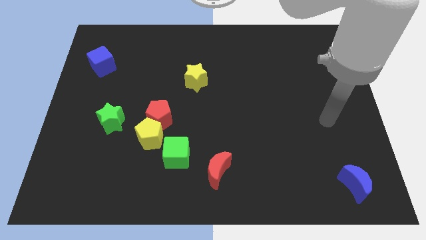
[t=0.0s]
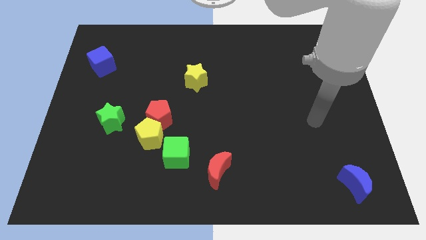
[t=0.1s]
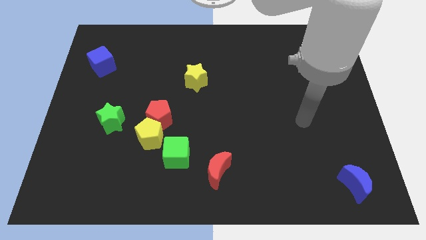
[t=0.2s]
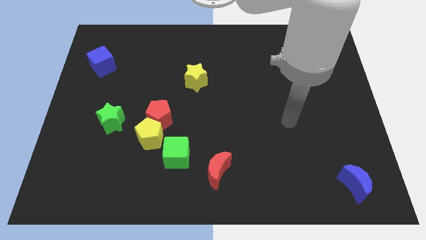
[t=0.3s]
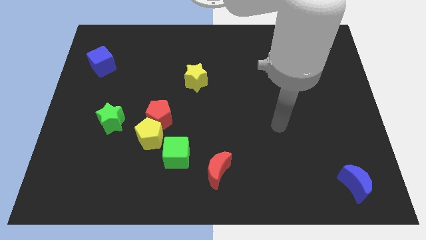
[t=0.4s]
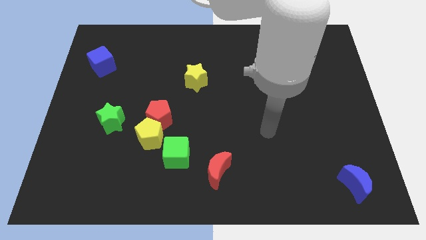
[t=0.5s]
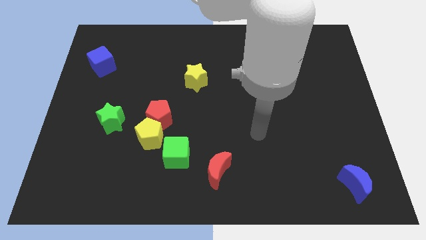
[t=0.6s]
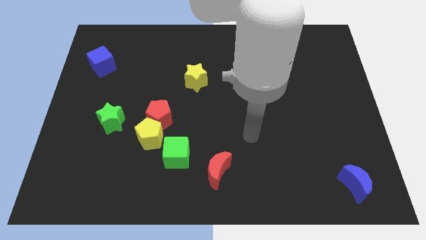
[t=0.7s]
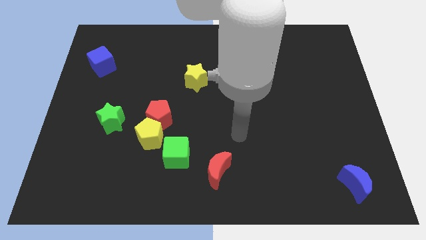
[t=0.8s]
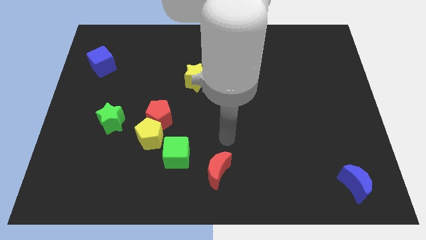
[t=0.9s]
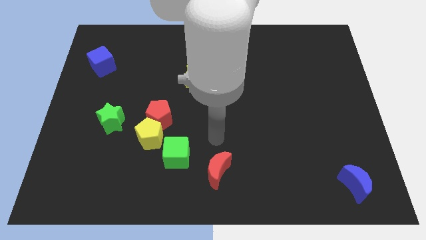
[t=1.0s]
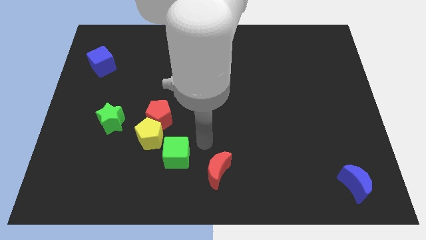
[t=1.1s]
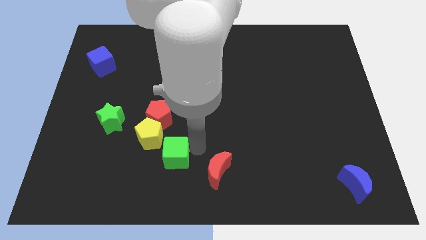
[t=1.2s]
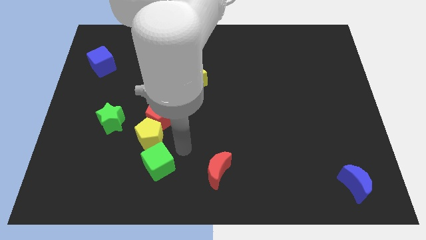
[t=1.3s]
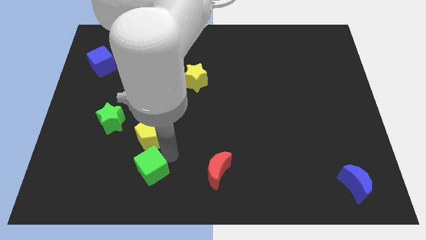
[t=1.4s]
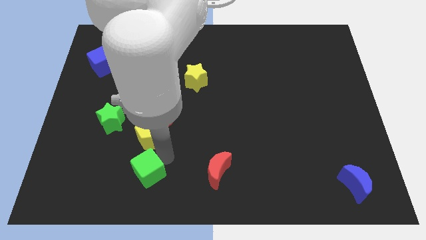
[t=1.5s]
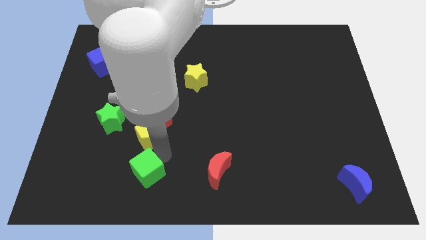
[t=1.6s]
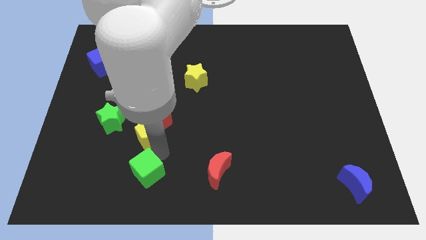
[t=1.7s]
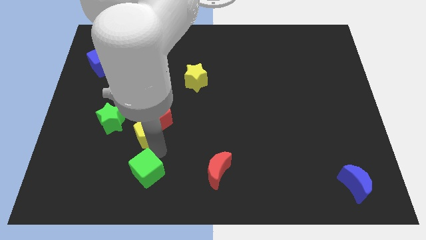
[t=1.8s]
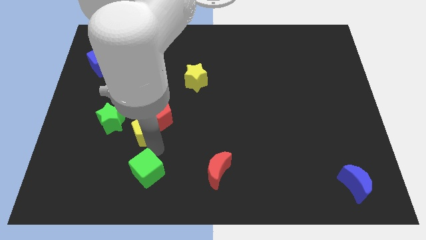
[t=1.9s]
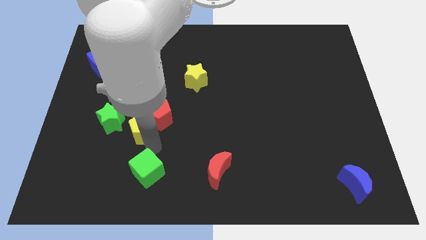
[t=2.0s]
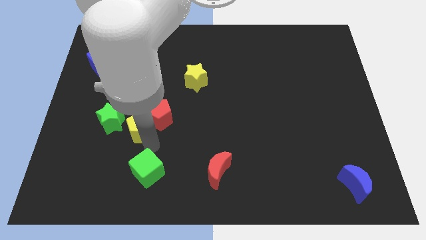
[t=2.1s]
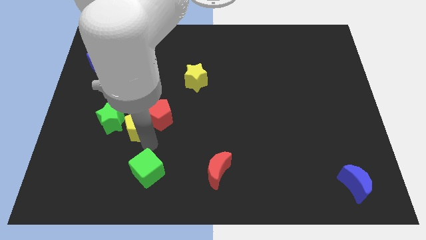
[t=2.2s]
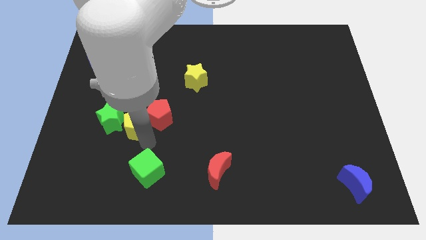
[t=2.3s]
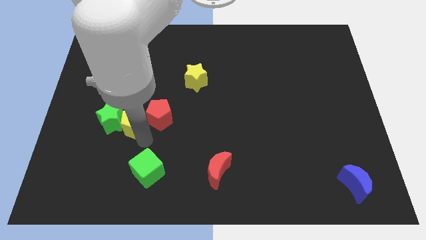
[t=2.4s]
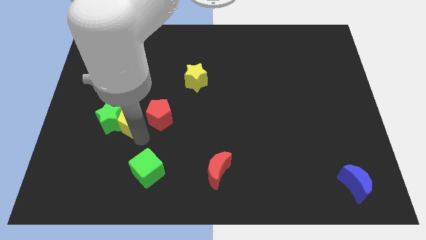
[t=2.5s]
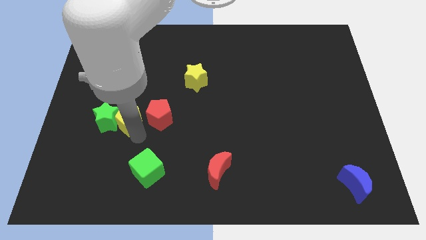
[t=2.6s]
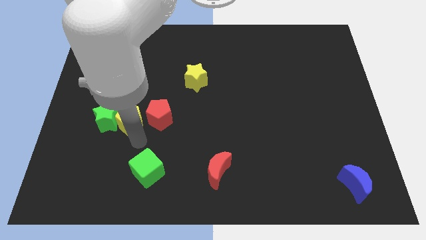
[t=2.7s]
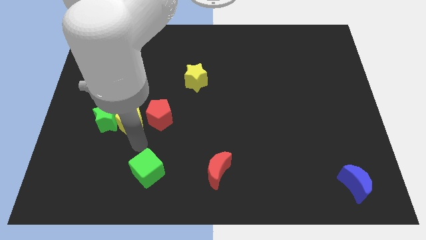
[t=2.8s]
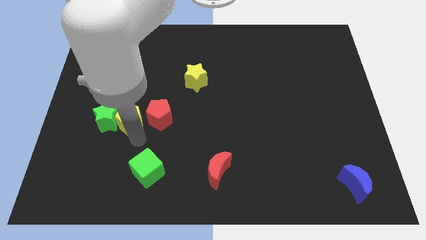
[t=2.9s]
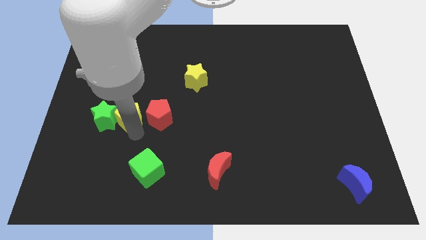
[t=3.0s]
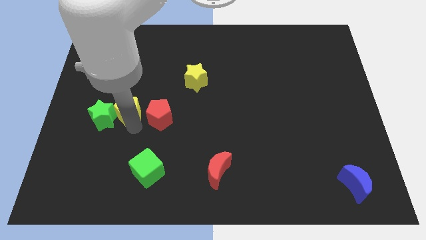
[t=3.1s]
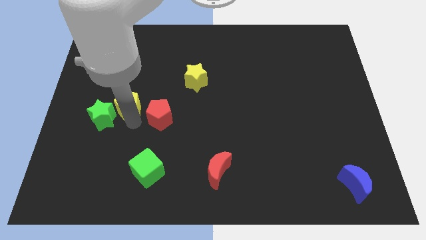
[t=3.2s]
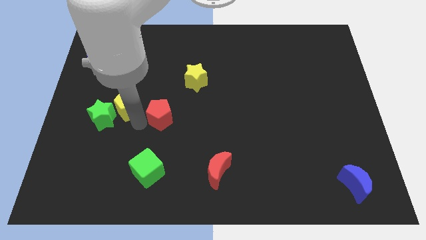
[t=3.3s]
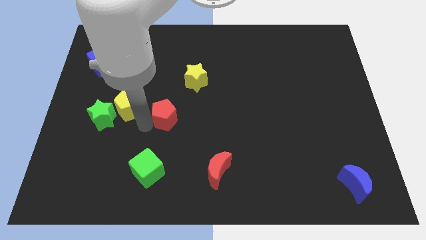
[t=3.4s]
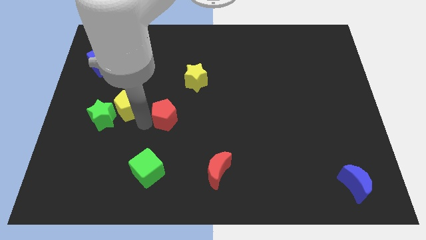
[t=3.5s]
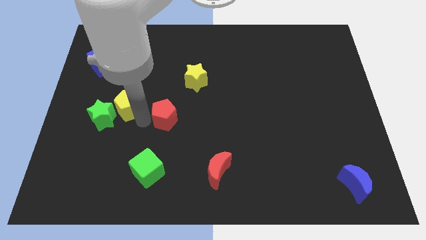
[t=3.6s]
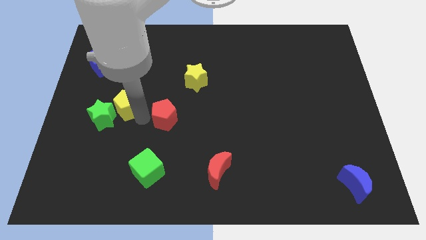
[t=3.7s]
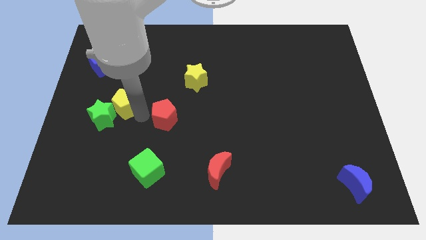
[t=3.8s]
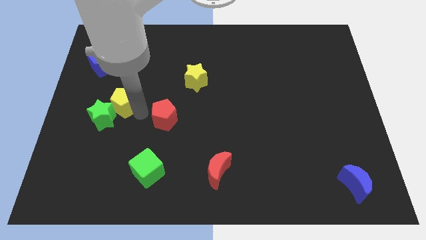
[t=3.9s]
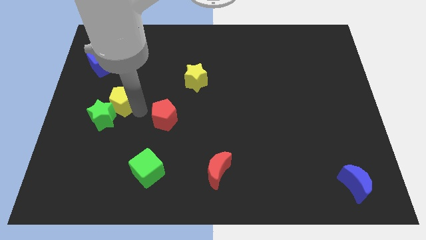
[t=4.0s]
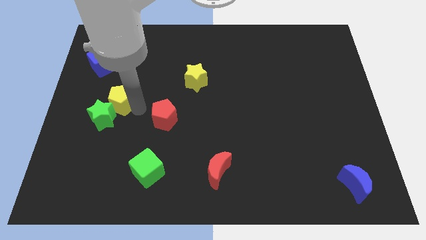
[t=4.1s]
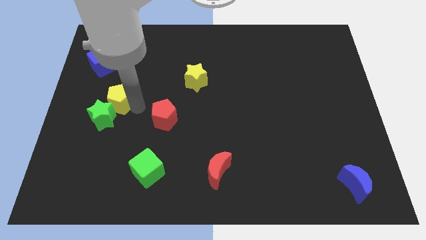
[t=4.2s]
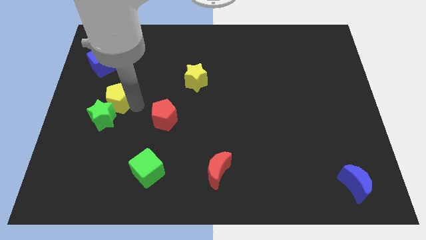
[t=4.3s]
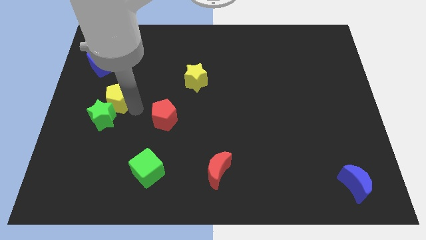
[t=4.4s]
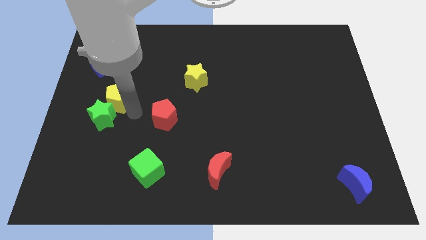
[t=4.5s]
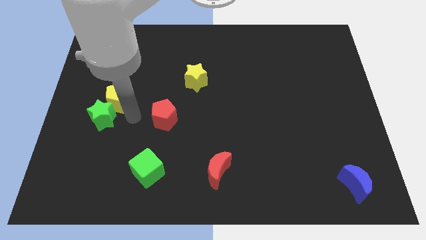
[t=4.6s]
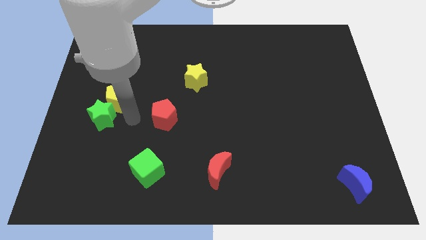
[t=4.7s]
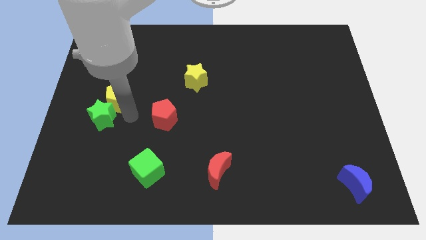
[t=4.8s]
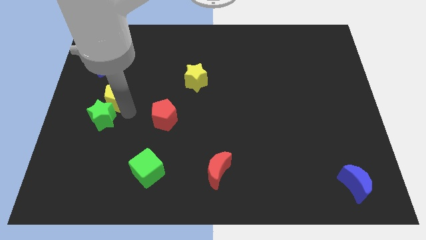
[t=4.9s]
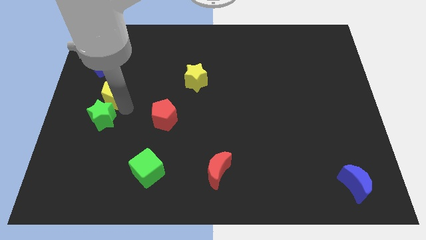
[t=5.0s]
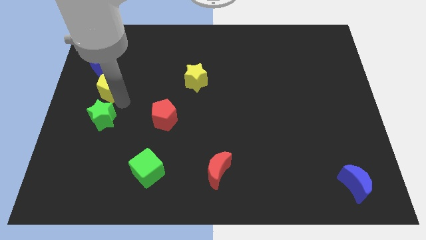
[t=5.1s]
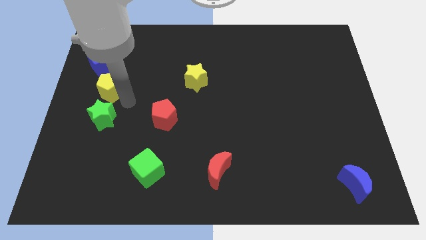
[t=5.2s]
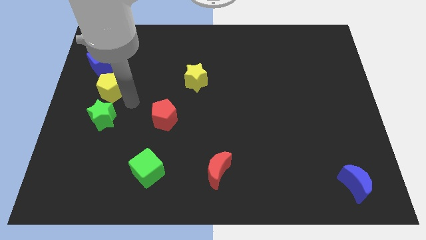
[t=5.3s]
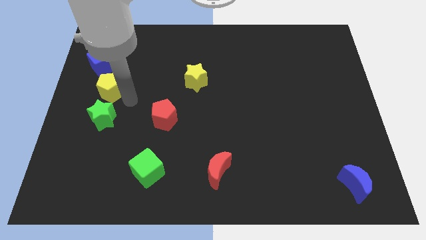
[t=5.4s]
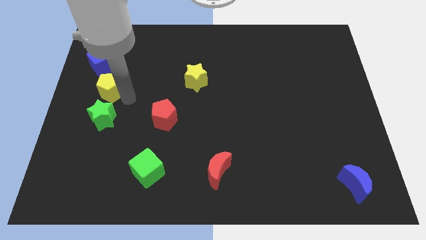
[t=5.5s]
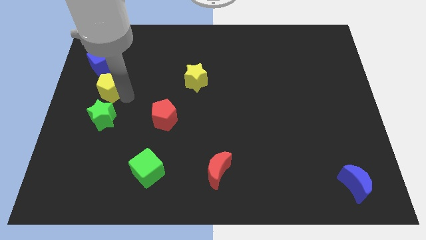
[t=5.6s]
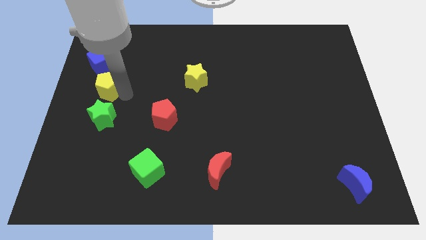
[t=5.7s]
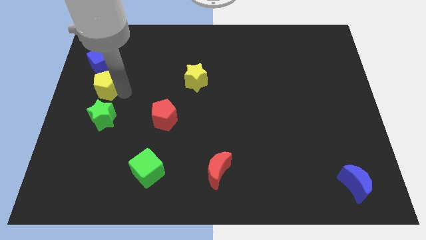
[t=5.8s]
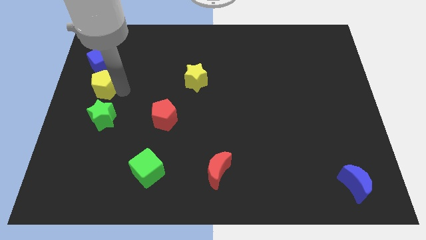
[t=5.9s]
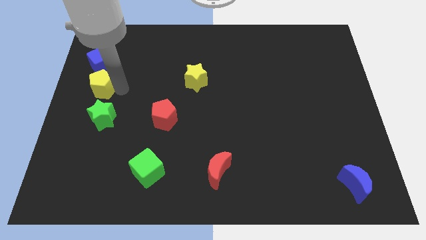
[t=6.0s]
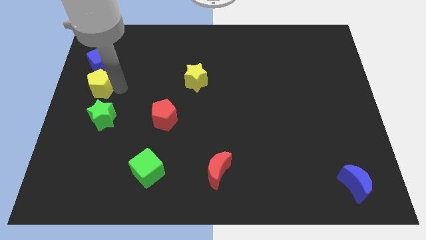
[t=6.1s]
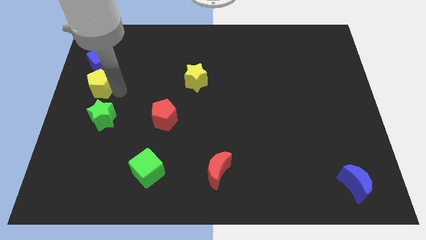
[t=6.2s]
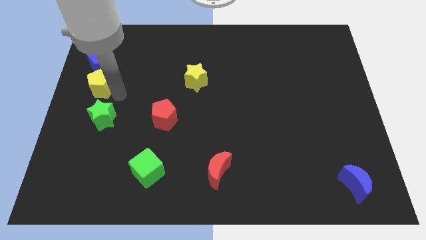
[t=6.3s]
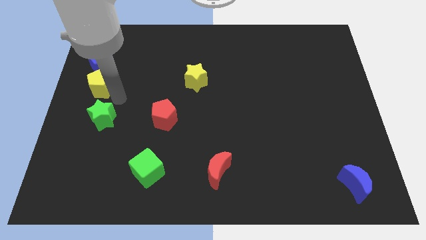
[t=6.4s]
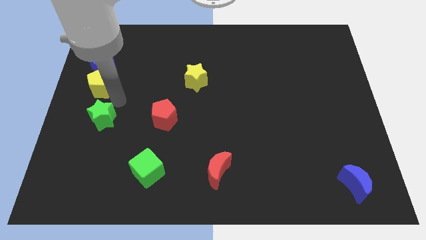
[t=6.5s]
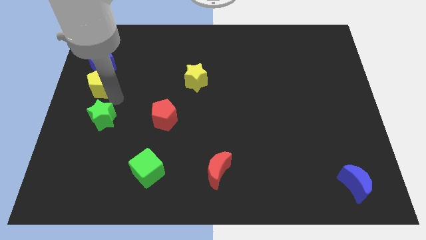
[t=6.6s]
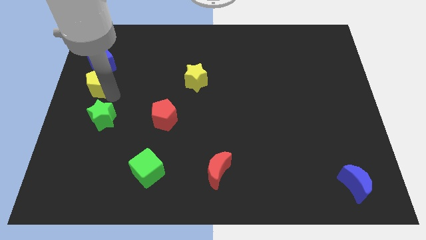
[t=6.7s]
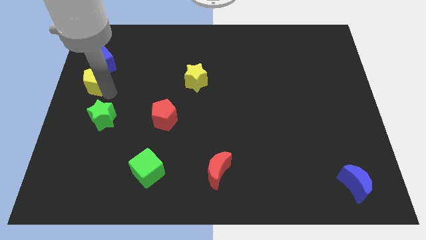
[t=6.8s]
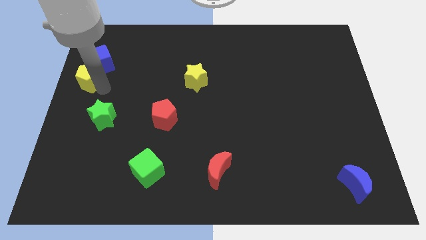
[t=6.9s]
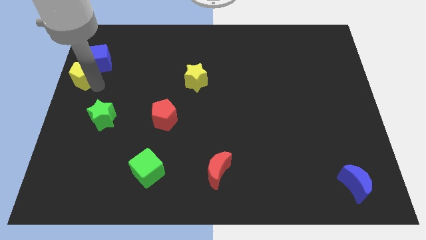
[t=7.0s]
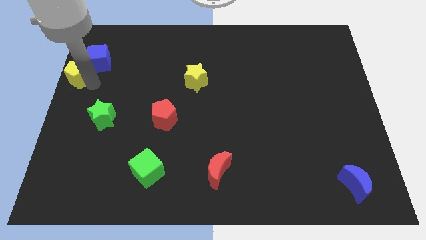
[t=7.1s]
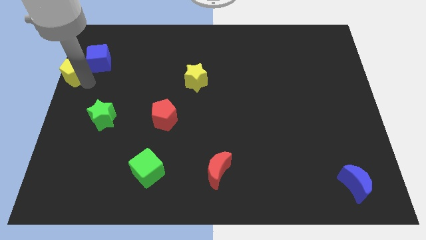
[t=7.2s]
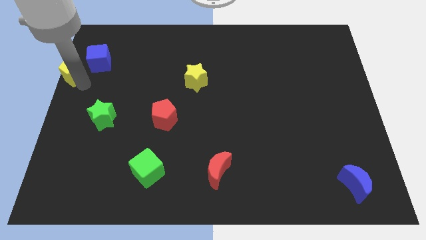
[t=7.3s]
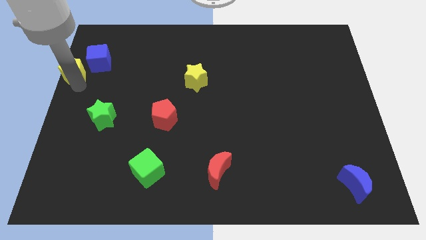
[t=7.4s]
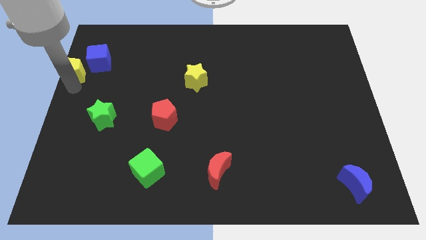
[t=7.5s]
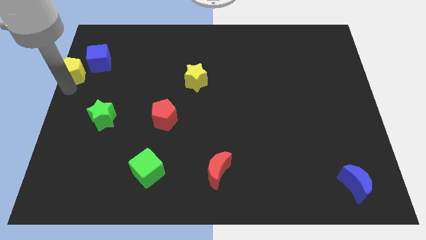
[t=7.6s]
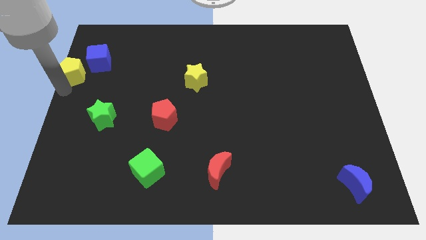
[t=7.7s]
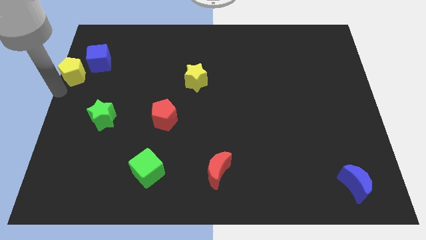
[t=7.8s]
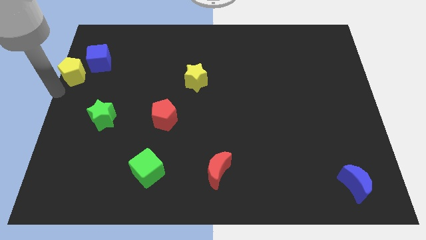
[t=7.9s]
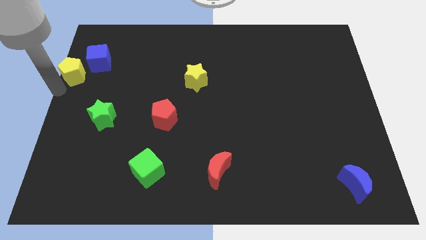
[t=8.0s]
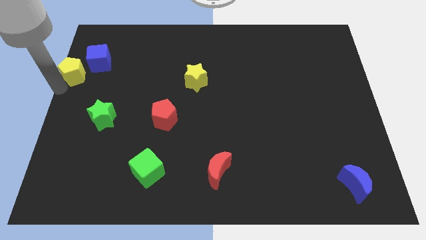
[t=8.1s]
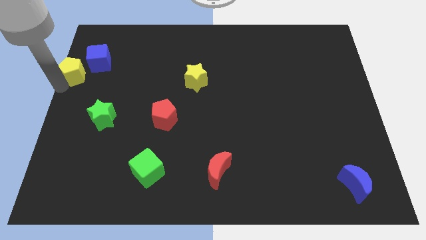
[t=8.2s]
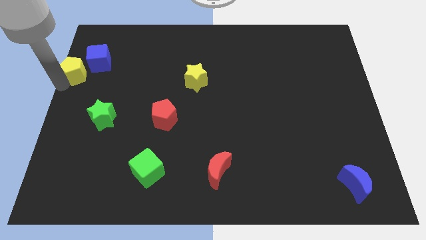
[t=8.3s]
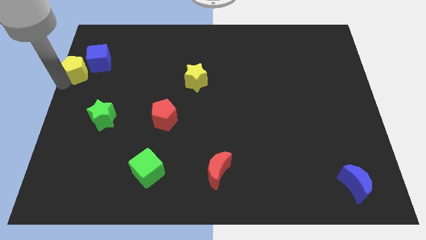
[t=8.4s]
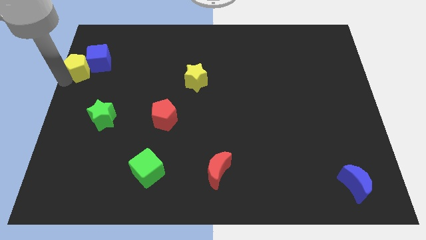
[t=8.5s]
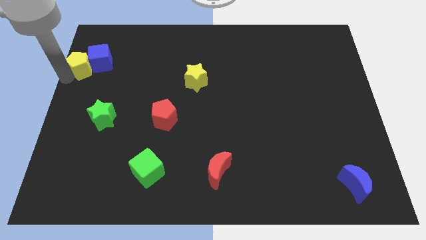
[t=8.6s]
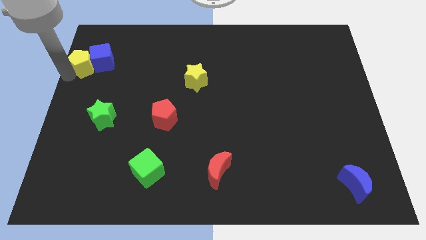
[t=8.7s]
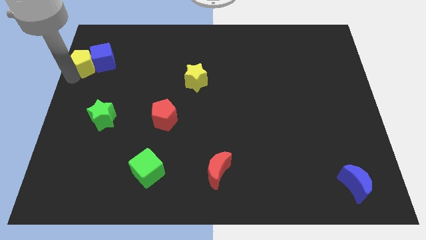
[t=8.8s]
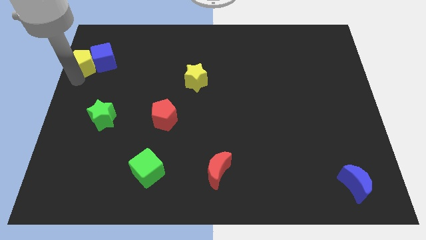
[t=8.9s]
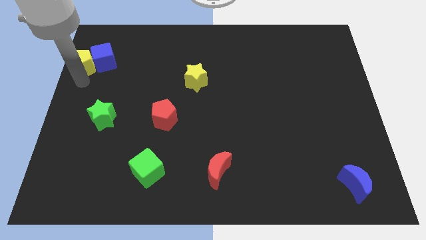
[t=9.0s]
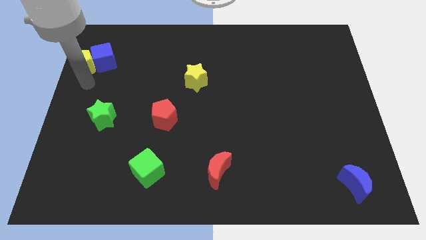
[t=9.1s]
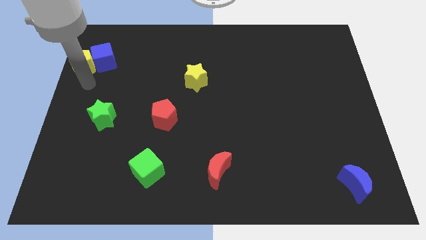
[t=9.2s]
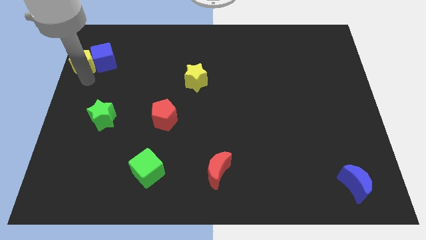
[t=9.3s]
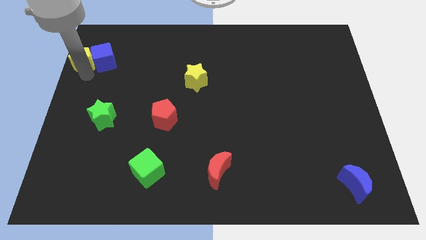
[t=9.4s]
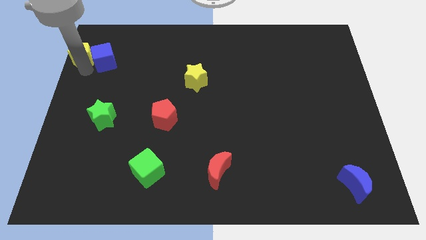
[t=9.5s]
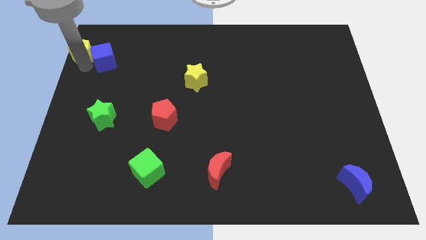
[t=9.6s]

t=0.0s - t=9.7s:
move the yellow pentagon to the top left of the board
